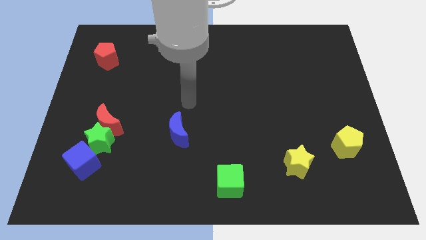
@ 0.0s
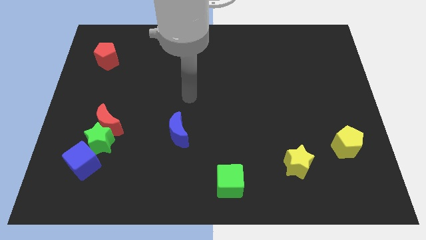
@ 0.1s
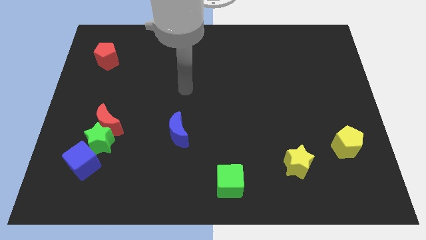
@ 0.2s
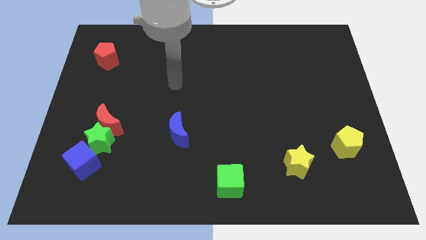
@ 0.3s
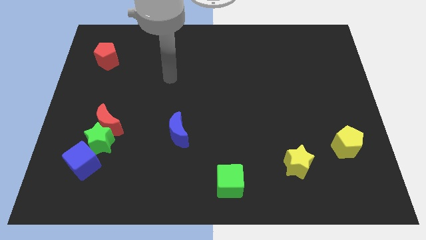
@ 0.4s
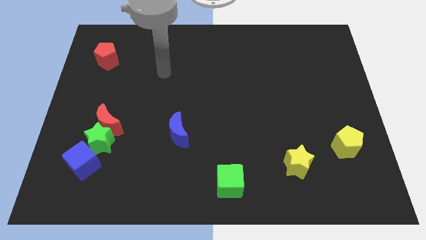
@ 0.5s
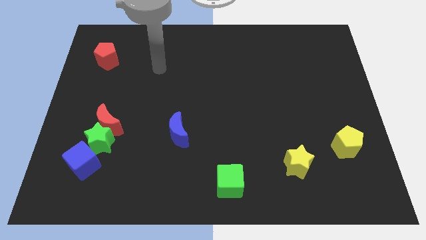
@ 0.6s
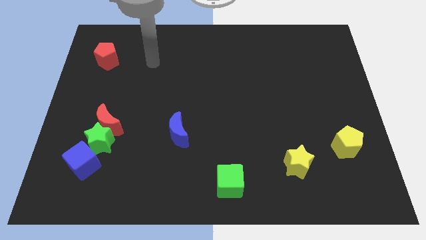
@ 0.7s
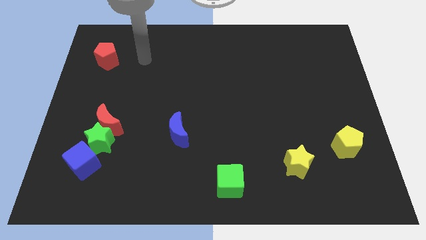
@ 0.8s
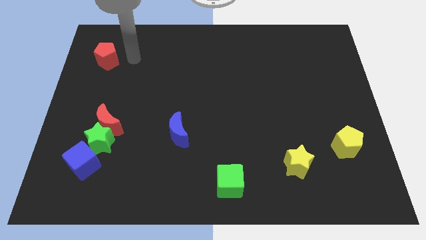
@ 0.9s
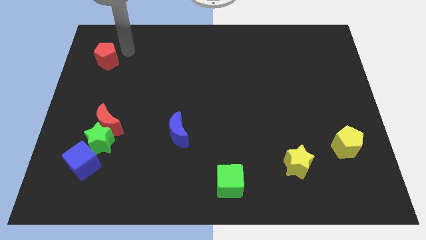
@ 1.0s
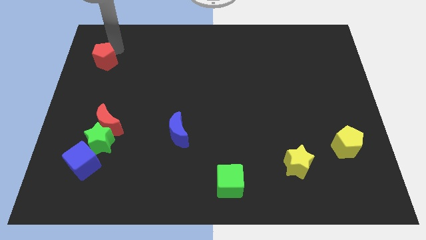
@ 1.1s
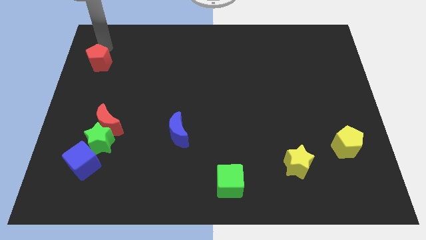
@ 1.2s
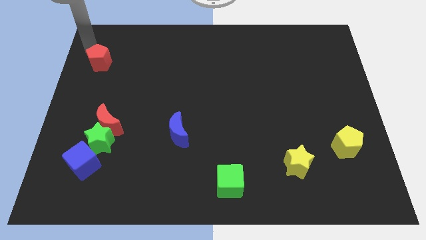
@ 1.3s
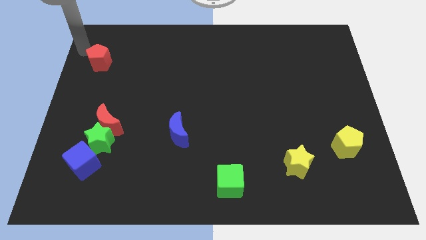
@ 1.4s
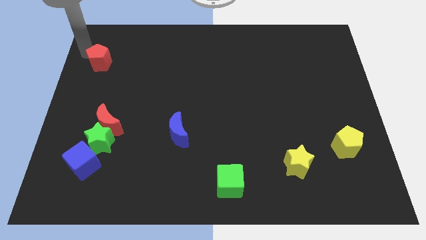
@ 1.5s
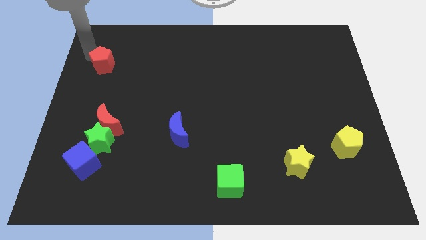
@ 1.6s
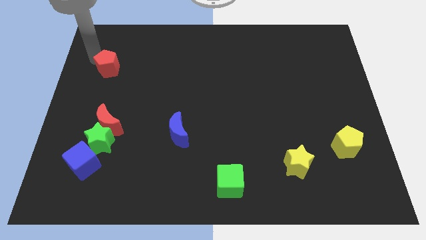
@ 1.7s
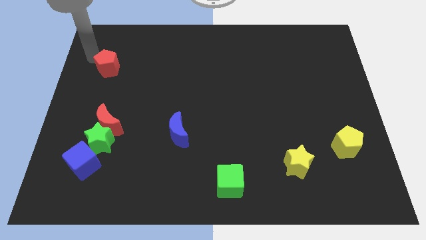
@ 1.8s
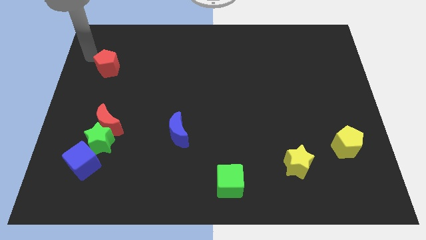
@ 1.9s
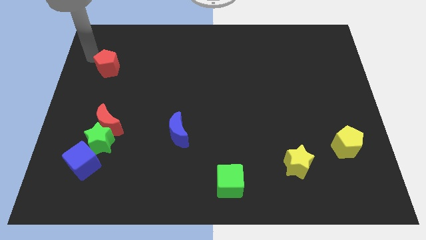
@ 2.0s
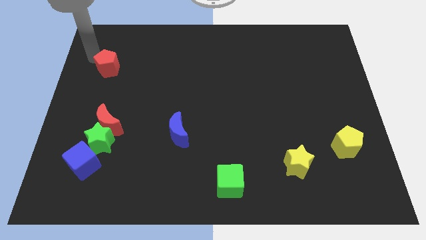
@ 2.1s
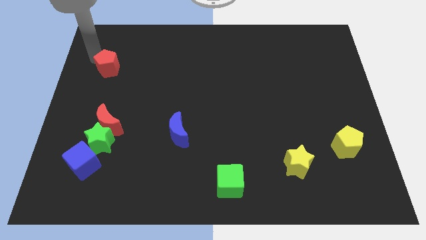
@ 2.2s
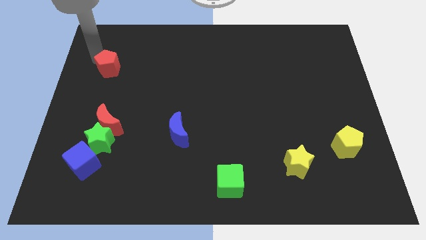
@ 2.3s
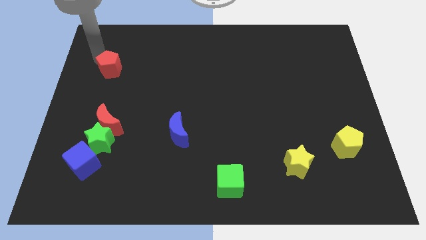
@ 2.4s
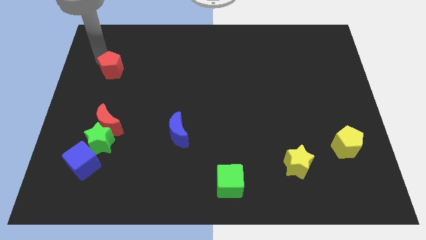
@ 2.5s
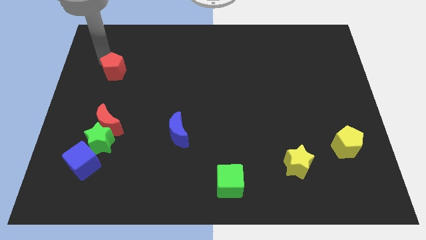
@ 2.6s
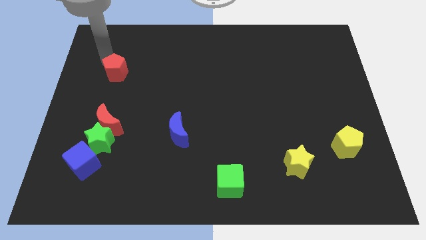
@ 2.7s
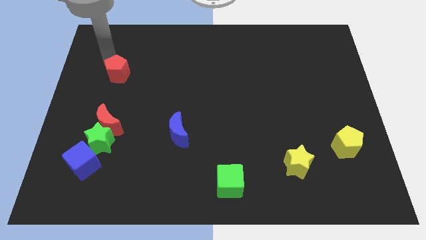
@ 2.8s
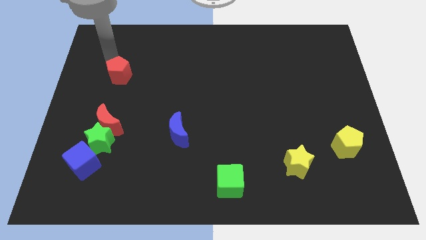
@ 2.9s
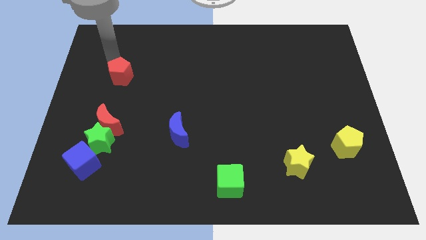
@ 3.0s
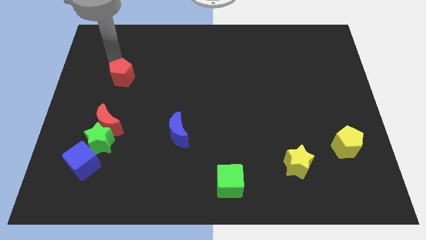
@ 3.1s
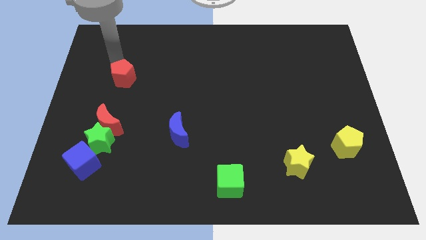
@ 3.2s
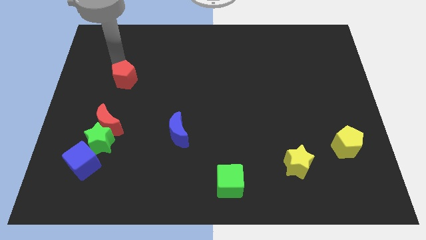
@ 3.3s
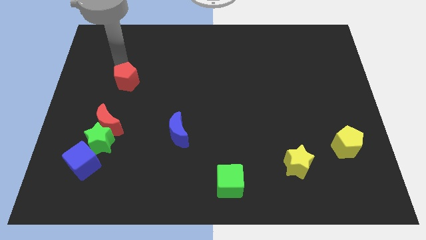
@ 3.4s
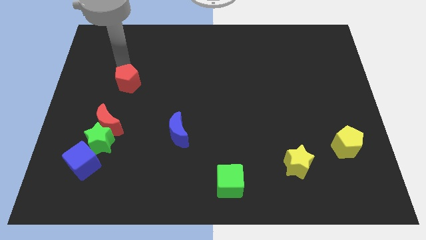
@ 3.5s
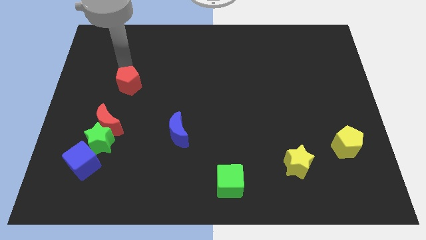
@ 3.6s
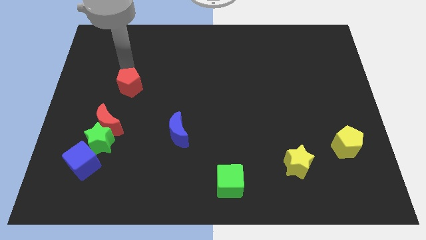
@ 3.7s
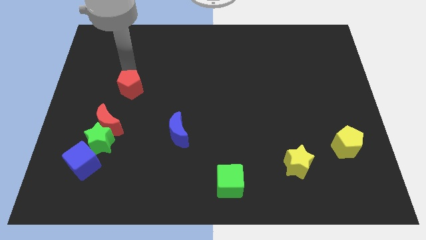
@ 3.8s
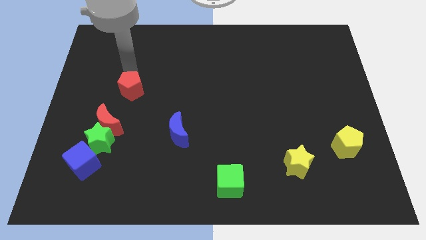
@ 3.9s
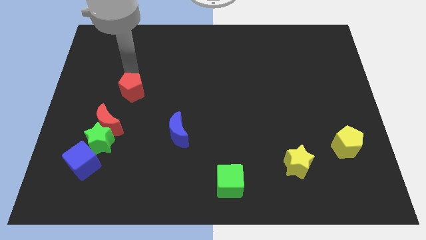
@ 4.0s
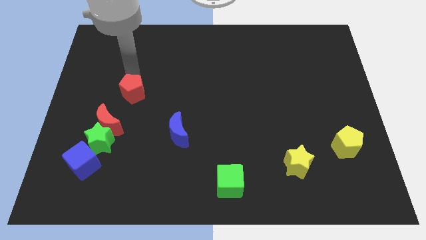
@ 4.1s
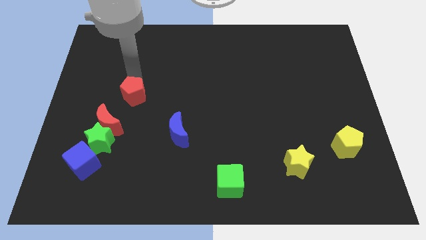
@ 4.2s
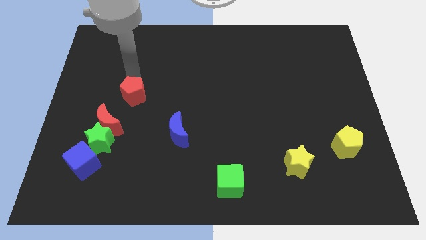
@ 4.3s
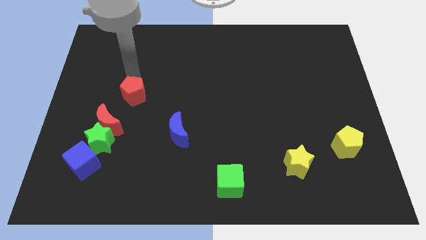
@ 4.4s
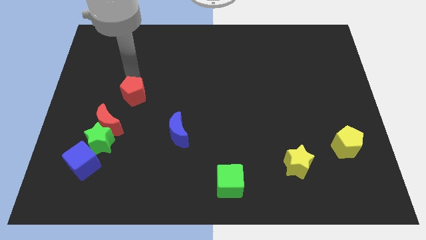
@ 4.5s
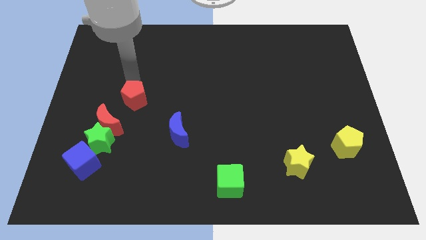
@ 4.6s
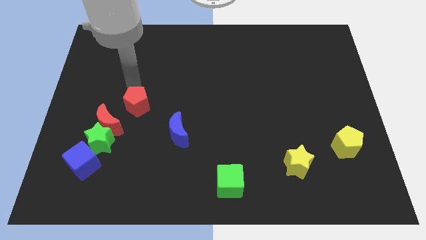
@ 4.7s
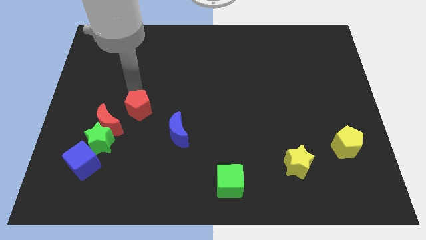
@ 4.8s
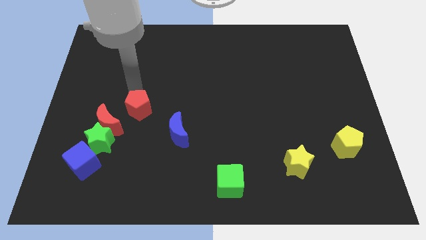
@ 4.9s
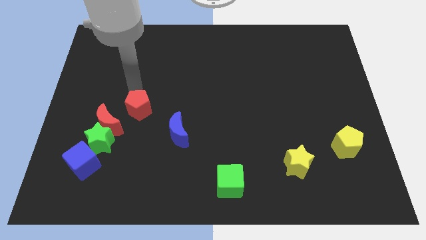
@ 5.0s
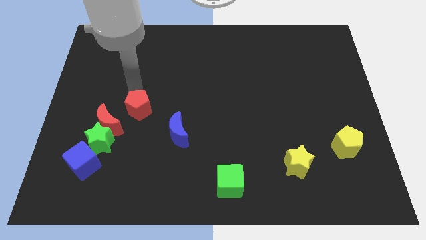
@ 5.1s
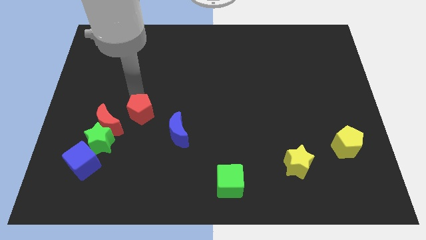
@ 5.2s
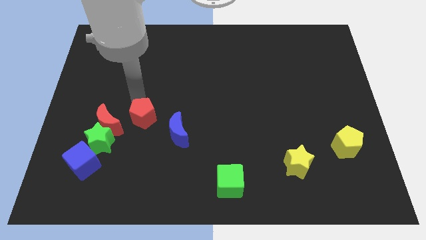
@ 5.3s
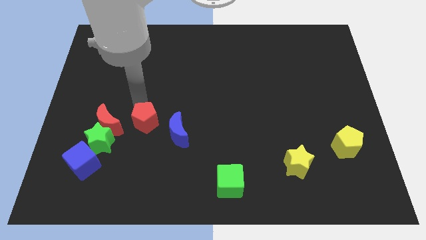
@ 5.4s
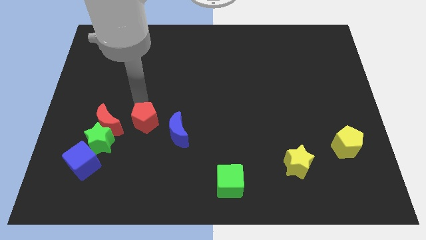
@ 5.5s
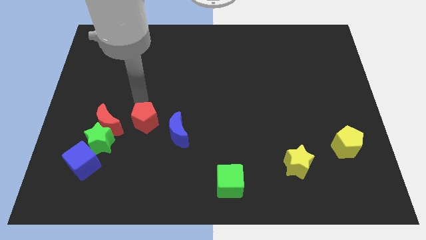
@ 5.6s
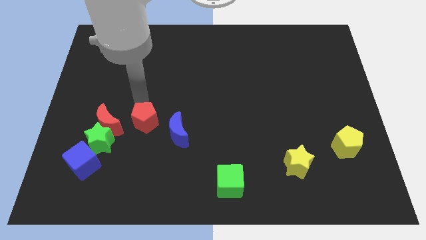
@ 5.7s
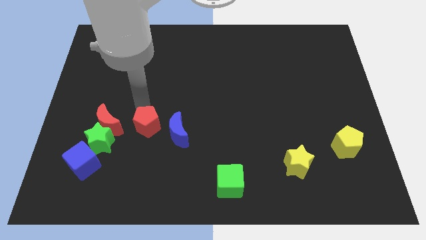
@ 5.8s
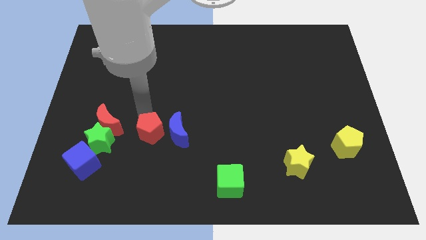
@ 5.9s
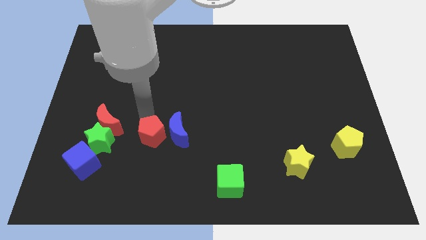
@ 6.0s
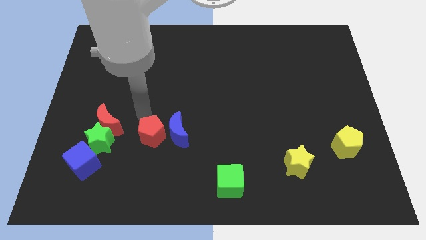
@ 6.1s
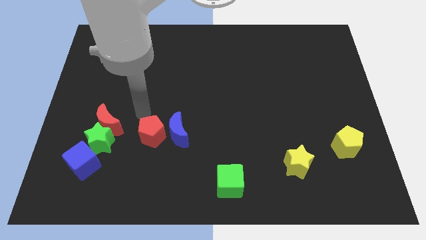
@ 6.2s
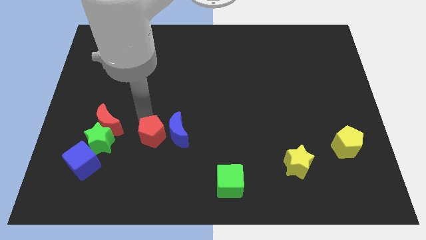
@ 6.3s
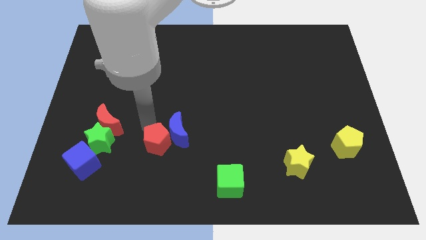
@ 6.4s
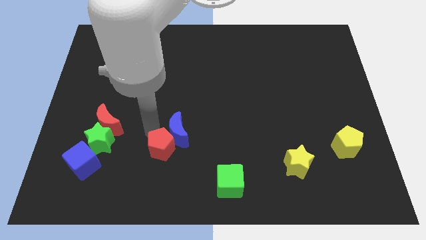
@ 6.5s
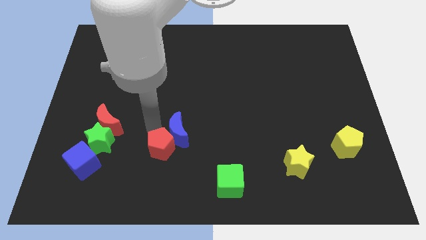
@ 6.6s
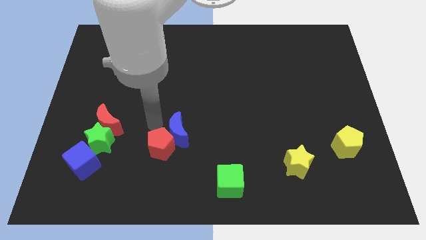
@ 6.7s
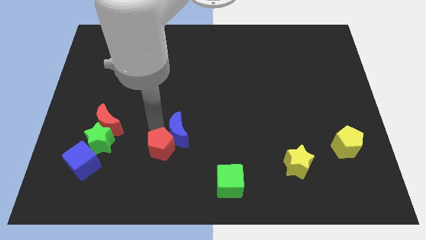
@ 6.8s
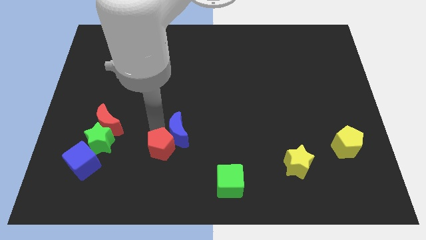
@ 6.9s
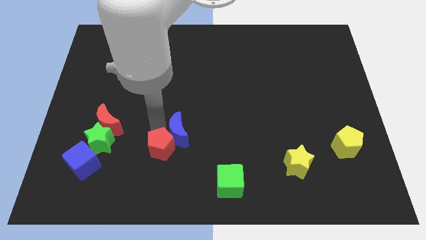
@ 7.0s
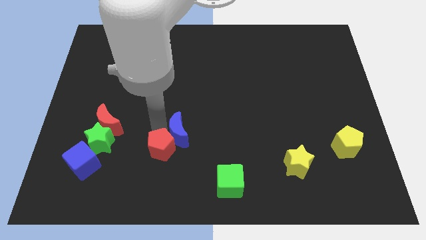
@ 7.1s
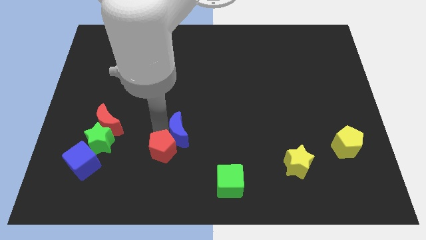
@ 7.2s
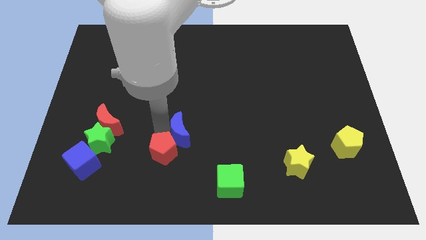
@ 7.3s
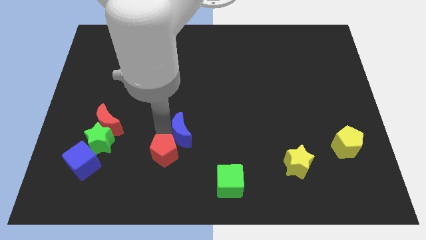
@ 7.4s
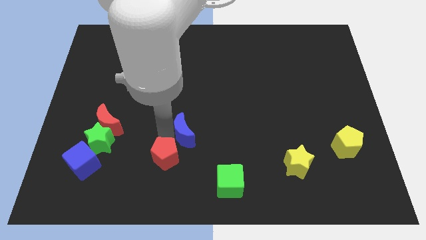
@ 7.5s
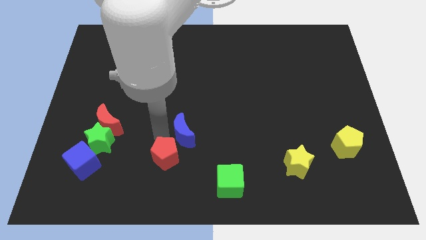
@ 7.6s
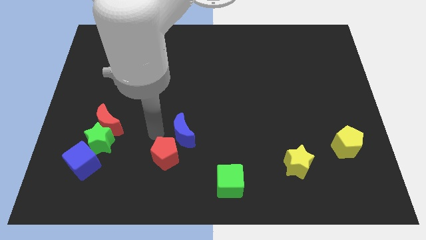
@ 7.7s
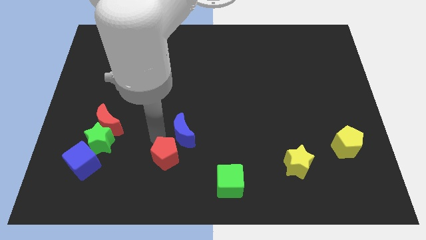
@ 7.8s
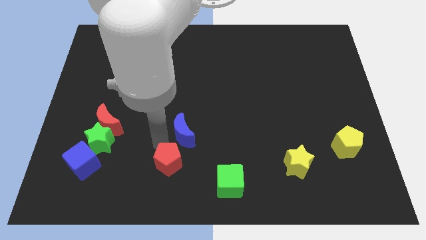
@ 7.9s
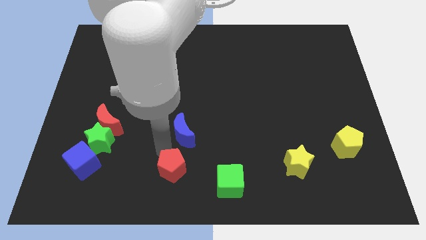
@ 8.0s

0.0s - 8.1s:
put the red pentagon to the bottom
